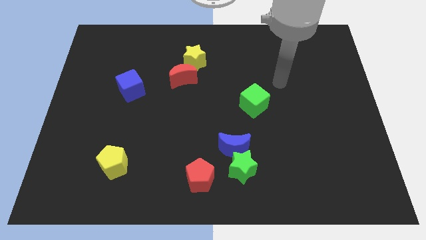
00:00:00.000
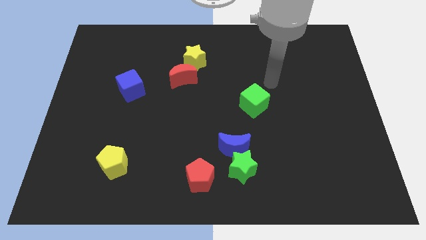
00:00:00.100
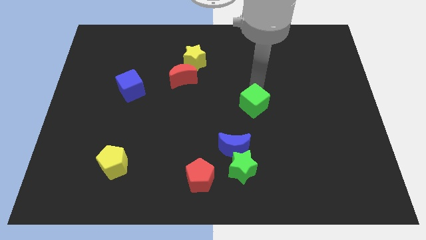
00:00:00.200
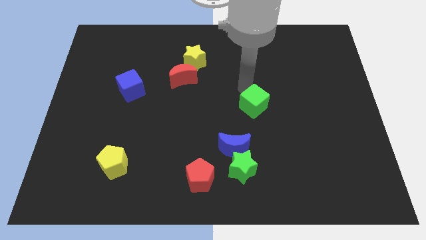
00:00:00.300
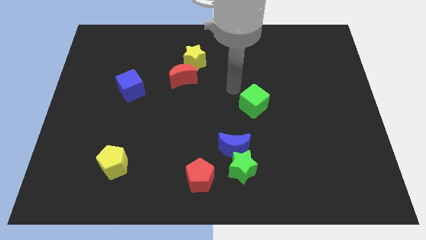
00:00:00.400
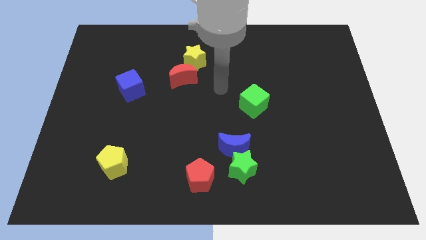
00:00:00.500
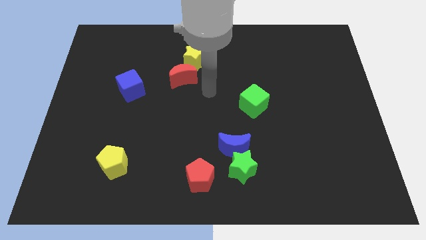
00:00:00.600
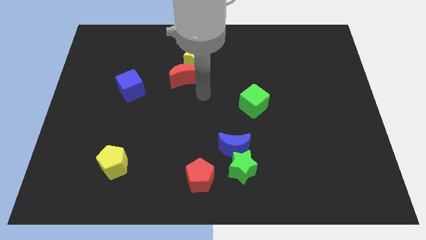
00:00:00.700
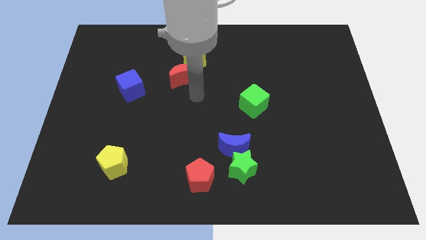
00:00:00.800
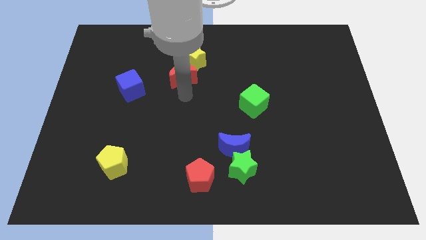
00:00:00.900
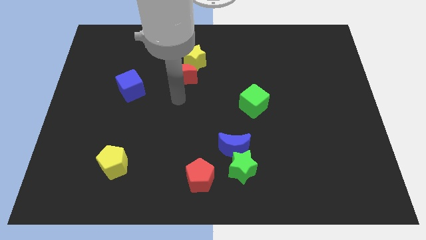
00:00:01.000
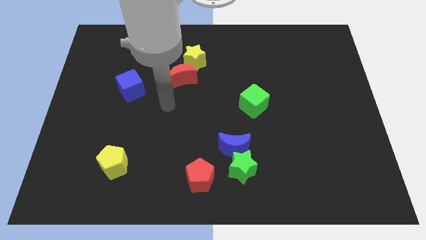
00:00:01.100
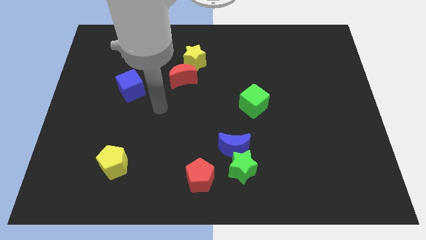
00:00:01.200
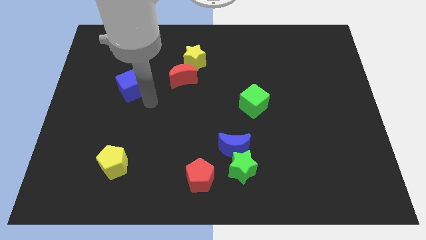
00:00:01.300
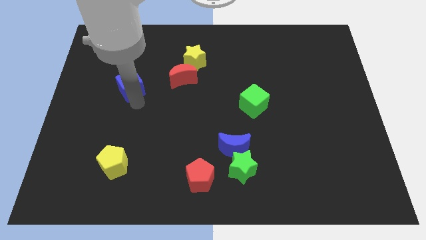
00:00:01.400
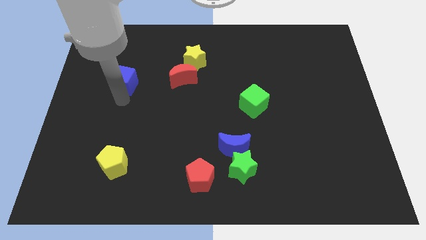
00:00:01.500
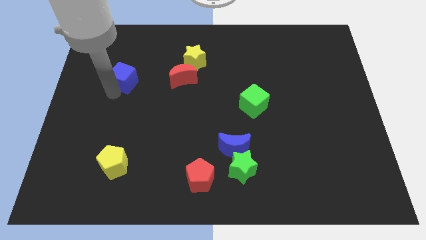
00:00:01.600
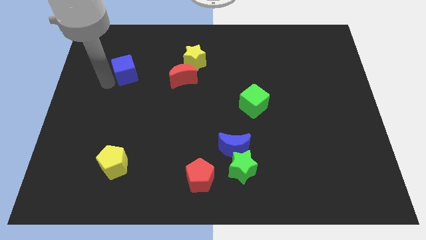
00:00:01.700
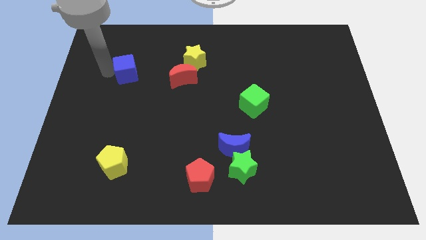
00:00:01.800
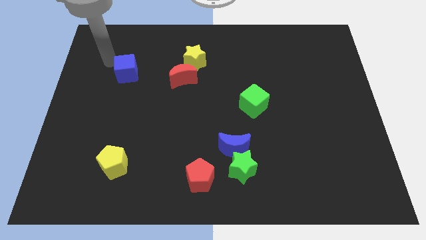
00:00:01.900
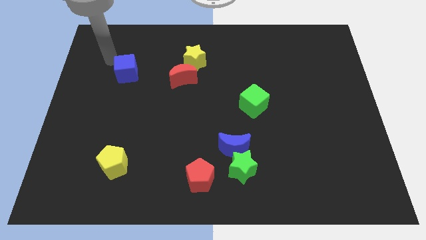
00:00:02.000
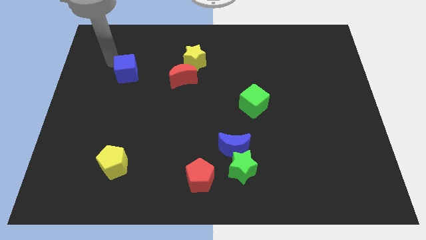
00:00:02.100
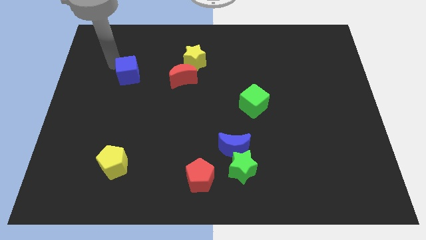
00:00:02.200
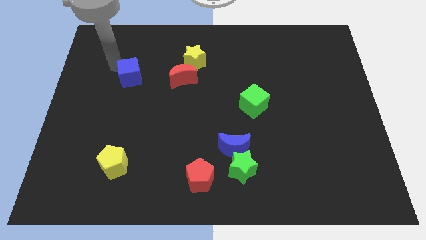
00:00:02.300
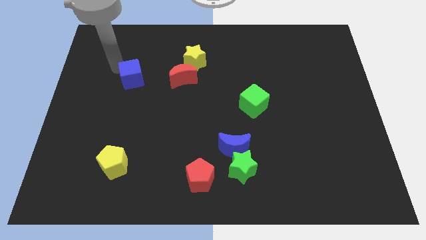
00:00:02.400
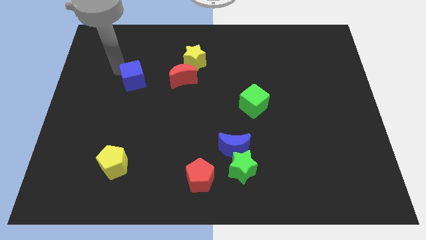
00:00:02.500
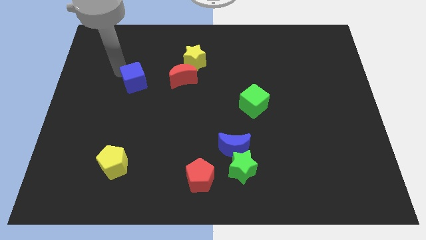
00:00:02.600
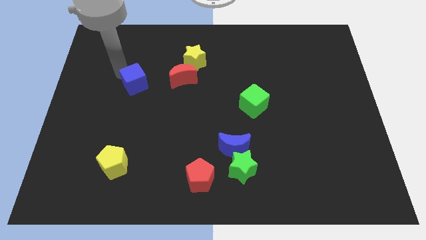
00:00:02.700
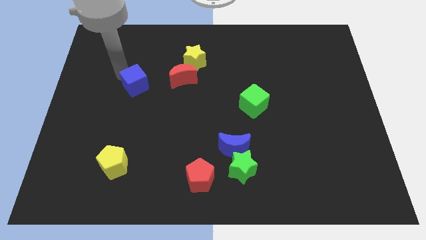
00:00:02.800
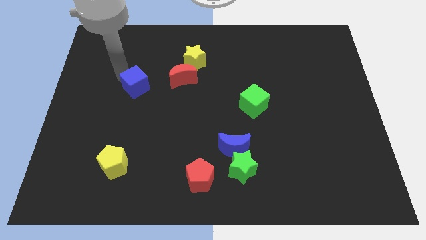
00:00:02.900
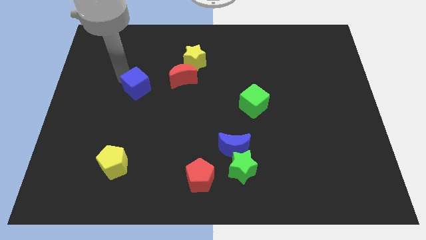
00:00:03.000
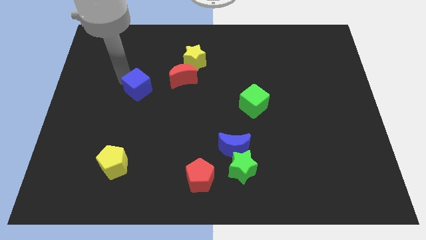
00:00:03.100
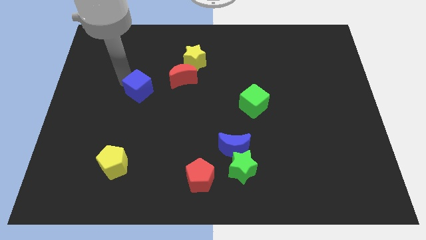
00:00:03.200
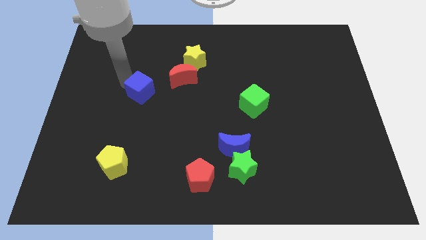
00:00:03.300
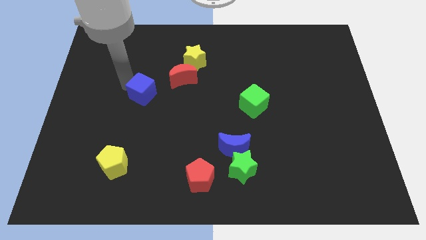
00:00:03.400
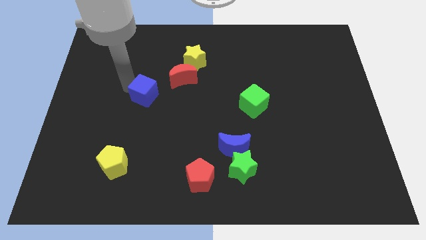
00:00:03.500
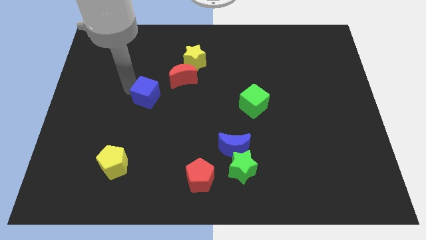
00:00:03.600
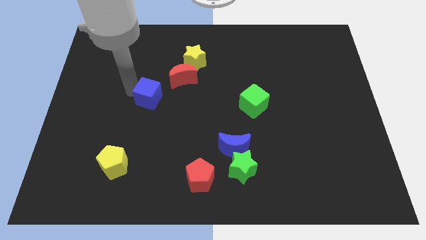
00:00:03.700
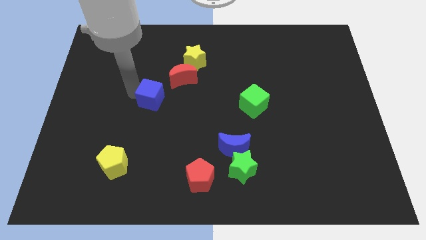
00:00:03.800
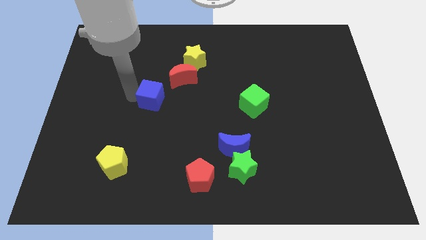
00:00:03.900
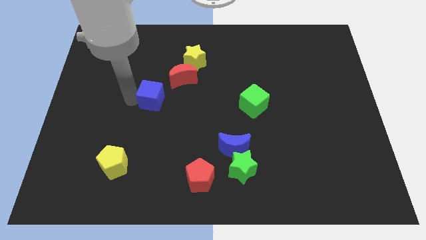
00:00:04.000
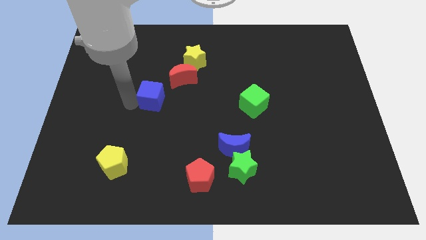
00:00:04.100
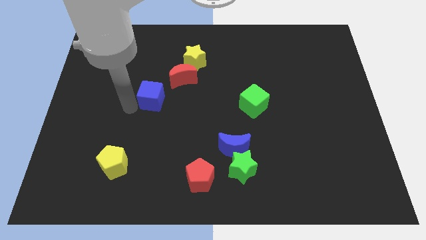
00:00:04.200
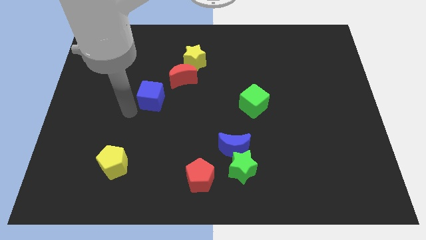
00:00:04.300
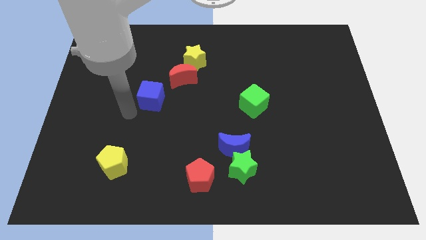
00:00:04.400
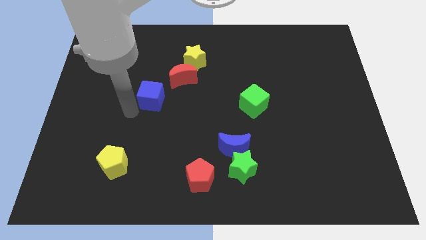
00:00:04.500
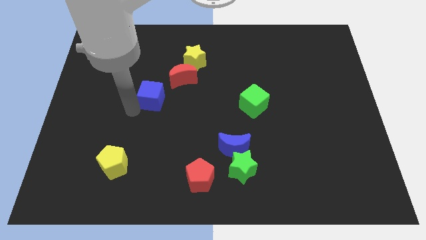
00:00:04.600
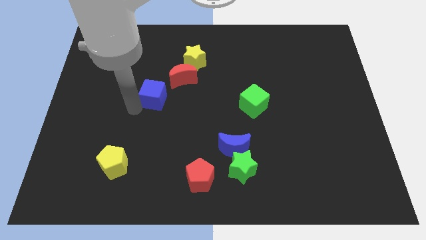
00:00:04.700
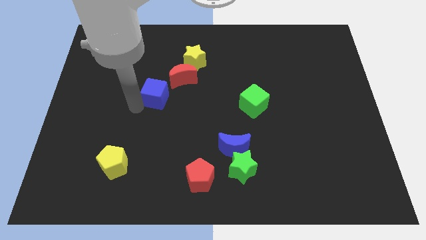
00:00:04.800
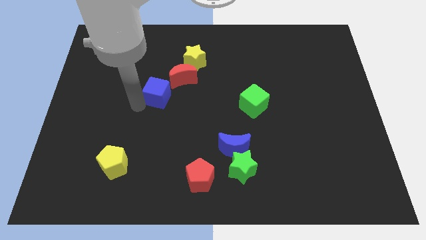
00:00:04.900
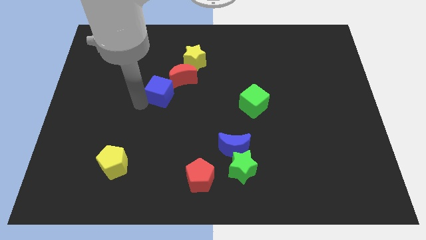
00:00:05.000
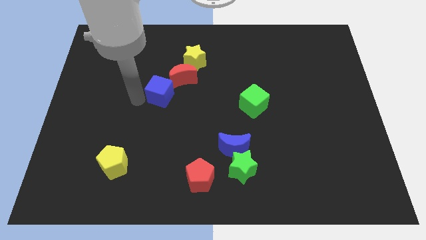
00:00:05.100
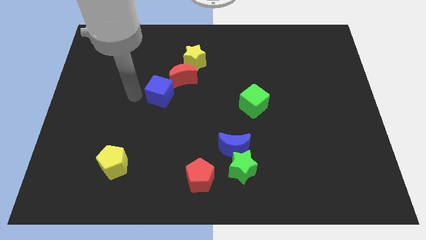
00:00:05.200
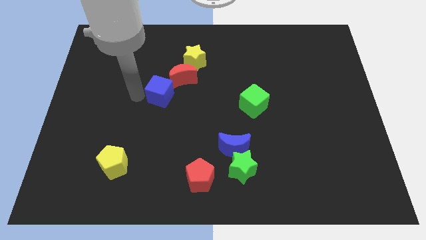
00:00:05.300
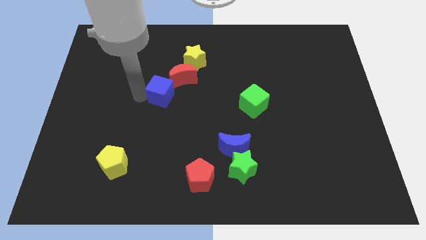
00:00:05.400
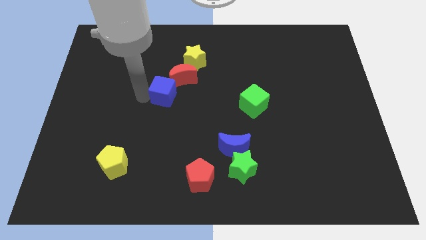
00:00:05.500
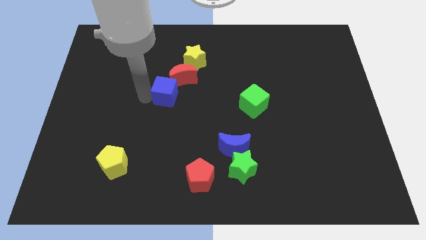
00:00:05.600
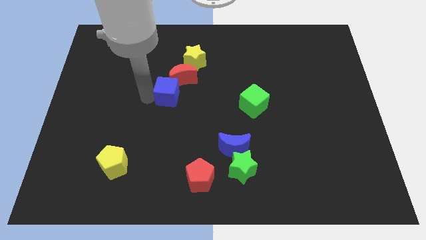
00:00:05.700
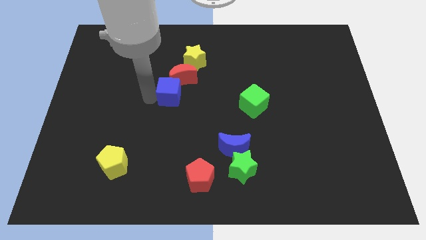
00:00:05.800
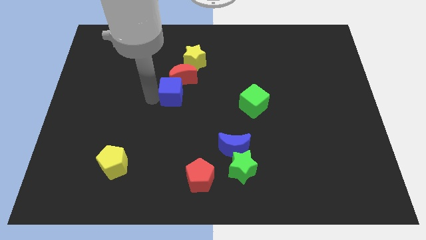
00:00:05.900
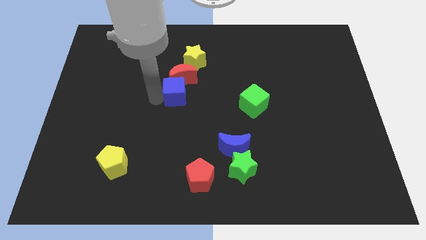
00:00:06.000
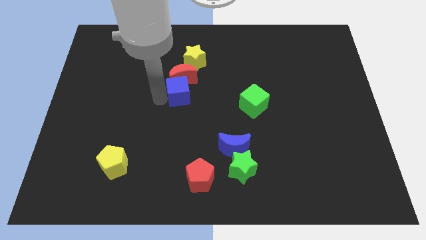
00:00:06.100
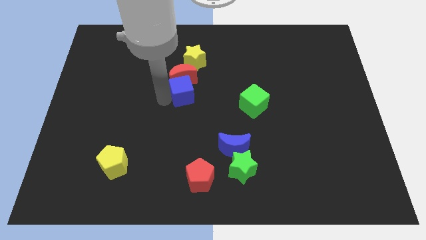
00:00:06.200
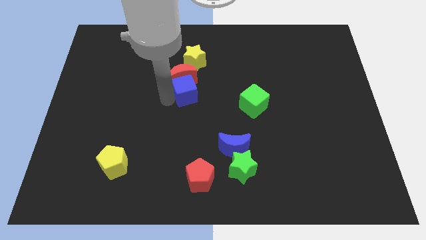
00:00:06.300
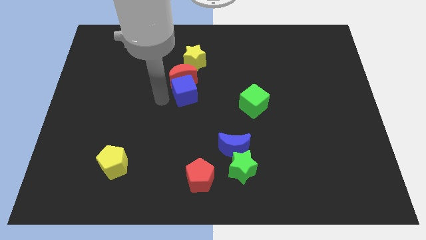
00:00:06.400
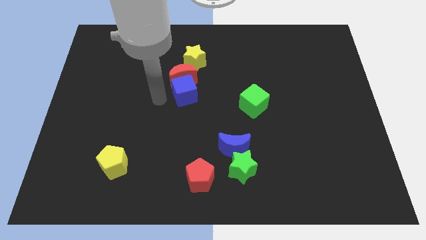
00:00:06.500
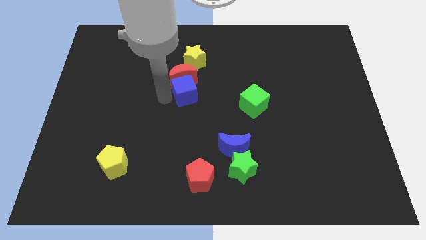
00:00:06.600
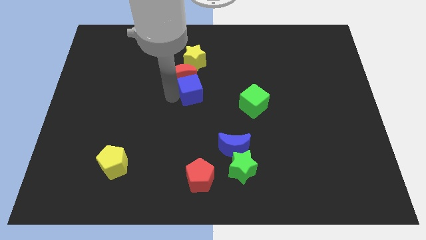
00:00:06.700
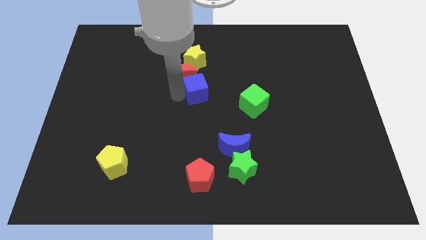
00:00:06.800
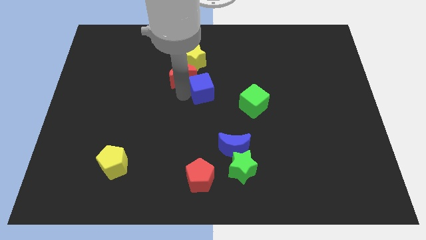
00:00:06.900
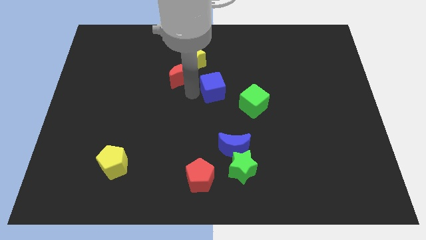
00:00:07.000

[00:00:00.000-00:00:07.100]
slide the blue cube right

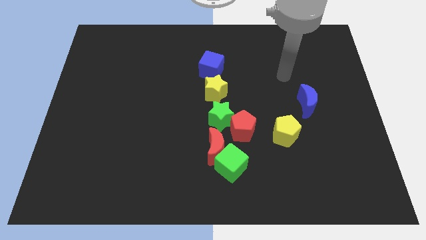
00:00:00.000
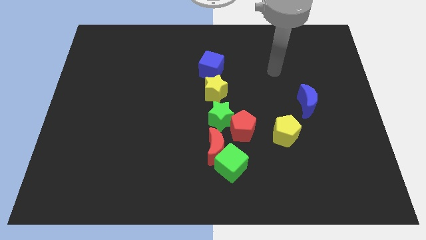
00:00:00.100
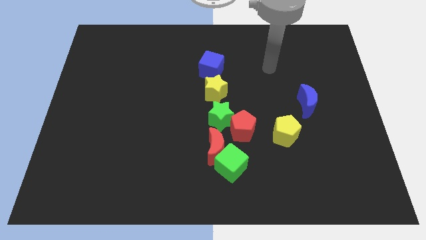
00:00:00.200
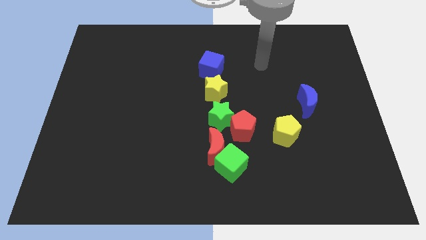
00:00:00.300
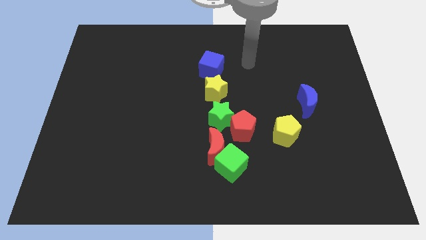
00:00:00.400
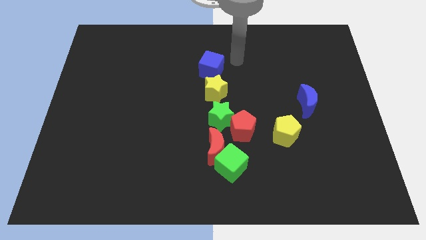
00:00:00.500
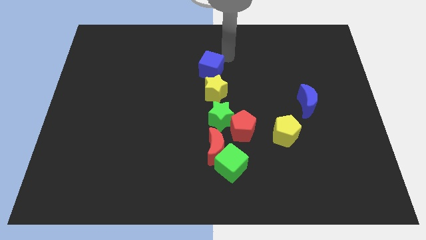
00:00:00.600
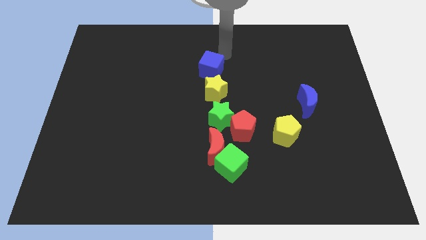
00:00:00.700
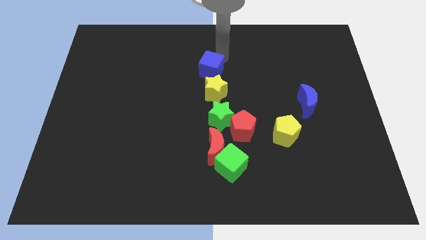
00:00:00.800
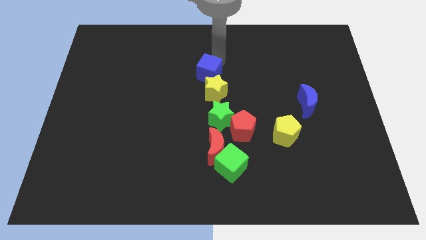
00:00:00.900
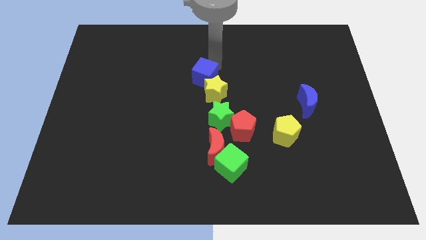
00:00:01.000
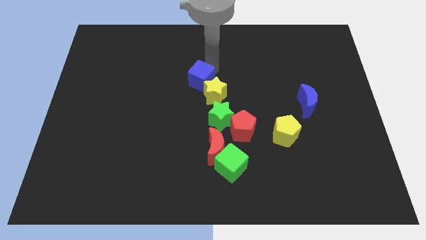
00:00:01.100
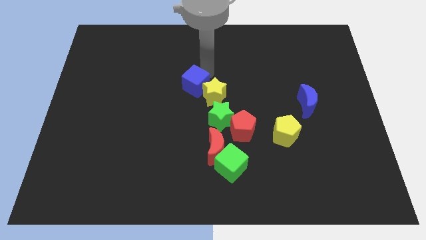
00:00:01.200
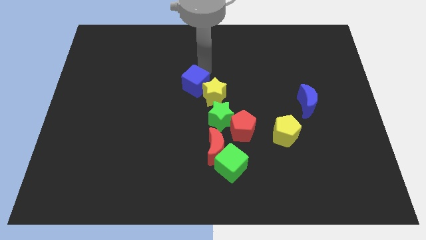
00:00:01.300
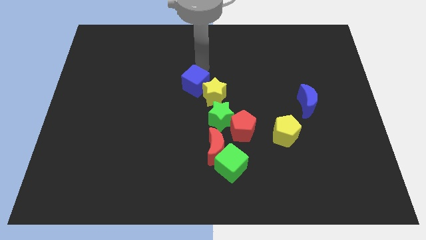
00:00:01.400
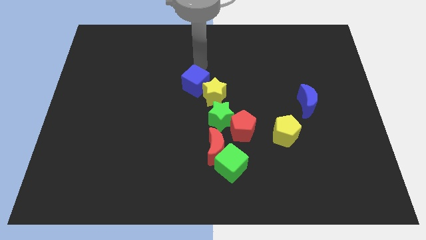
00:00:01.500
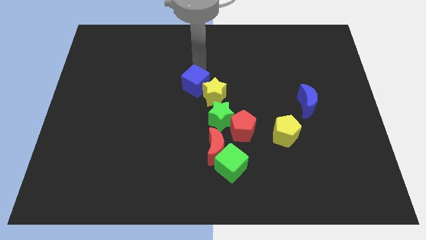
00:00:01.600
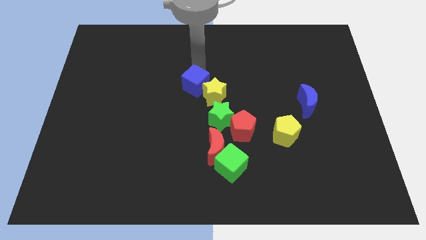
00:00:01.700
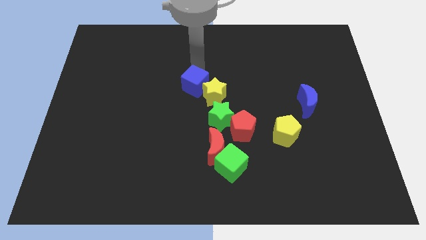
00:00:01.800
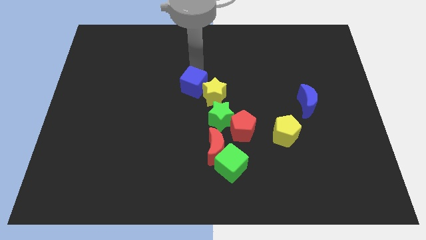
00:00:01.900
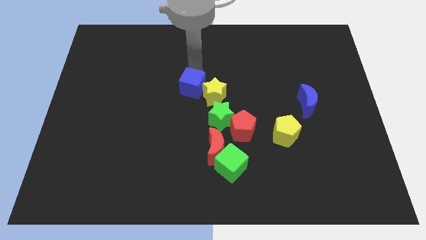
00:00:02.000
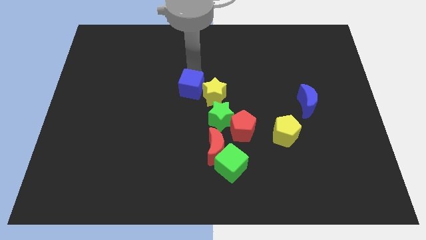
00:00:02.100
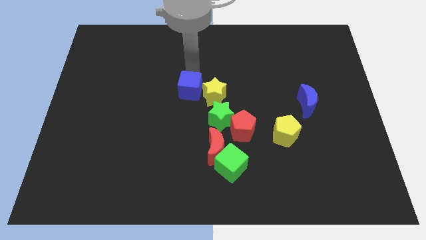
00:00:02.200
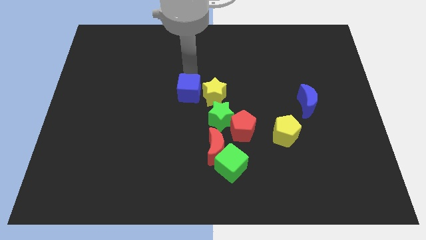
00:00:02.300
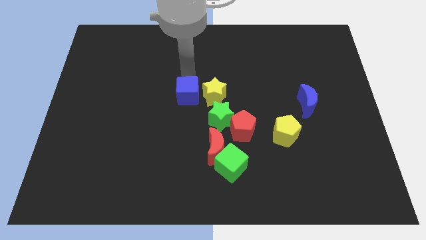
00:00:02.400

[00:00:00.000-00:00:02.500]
slightly move the blue cube downwards
